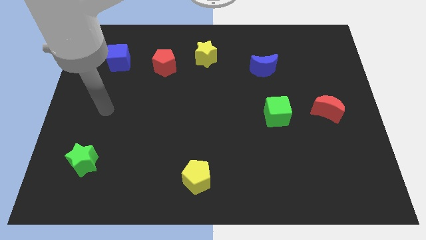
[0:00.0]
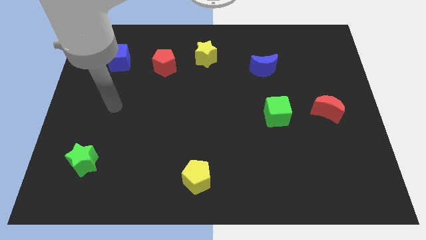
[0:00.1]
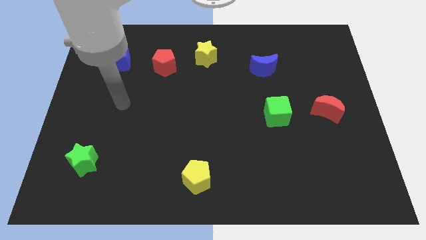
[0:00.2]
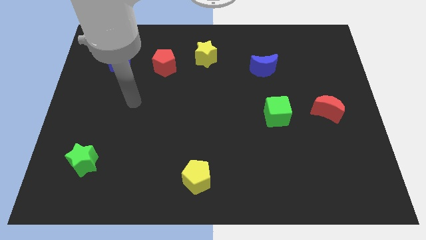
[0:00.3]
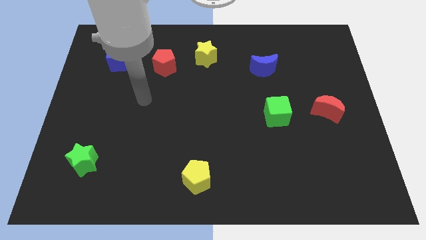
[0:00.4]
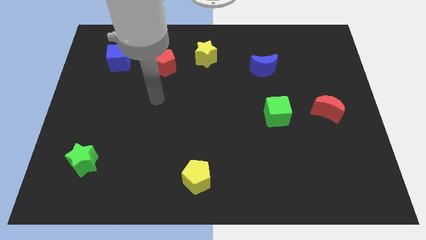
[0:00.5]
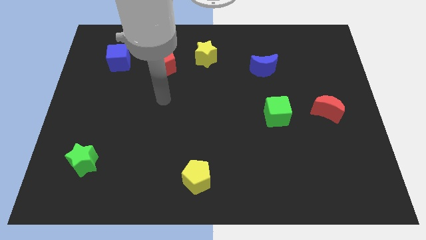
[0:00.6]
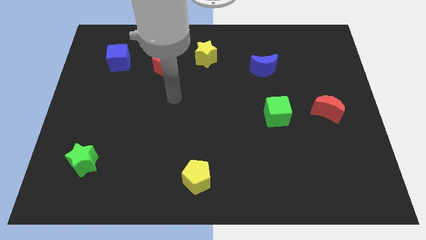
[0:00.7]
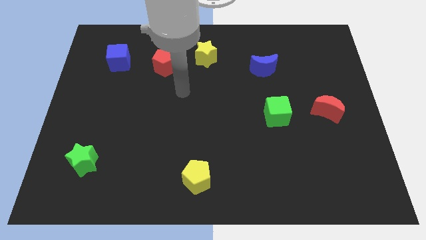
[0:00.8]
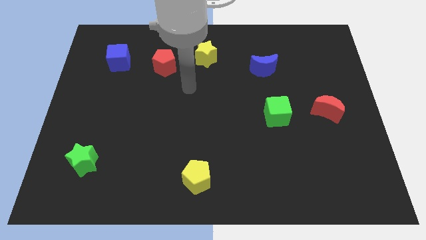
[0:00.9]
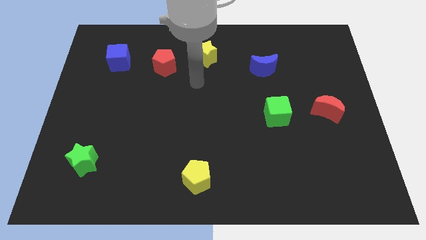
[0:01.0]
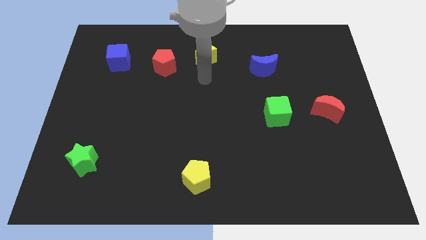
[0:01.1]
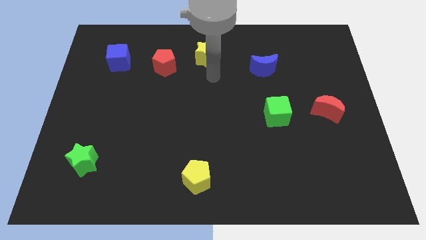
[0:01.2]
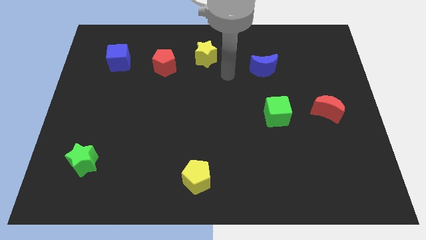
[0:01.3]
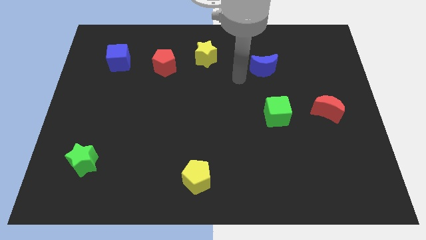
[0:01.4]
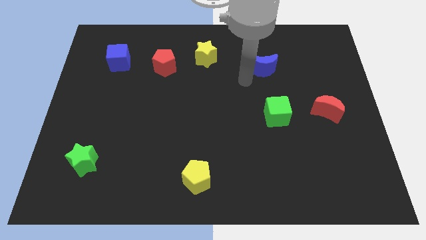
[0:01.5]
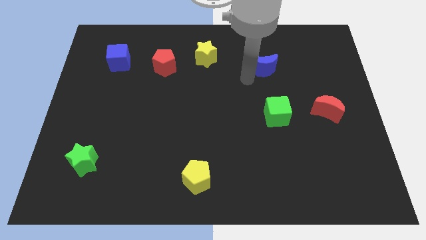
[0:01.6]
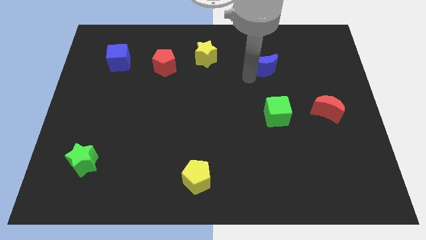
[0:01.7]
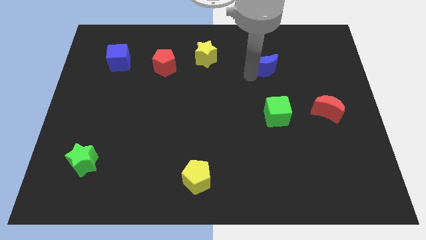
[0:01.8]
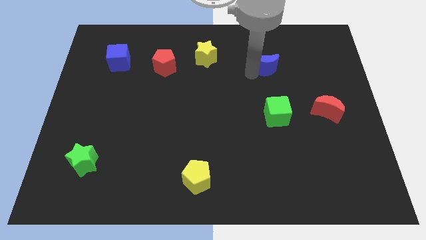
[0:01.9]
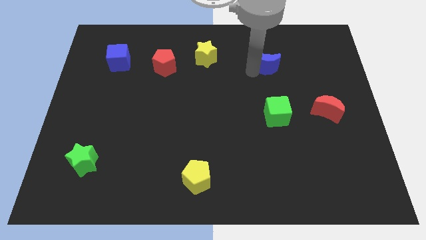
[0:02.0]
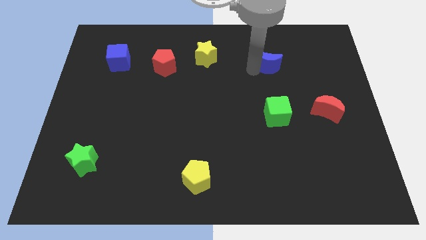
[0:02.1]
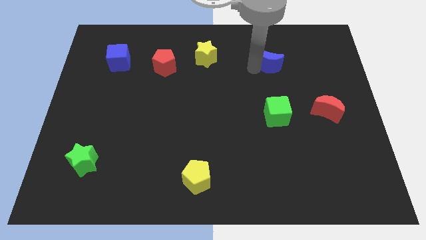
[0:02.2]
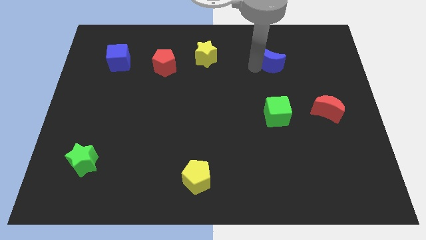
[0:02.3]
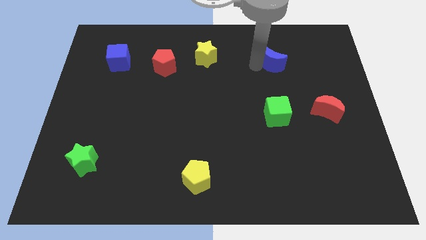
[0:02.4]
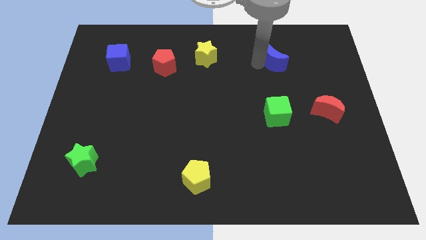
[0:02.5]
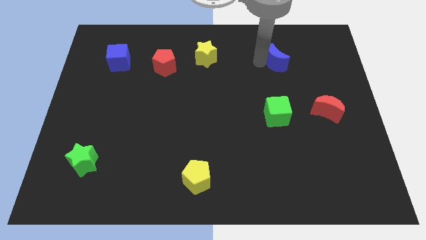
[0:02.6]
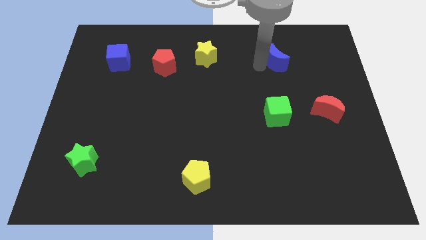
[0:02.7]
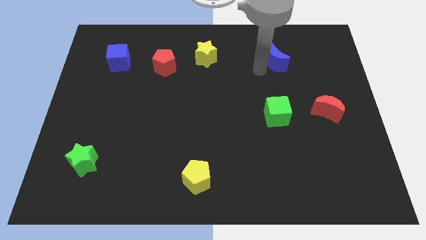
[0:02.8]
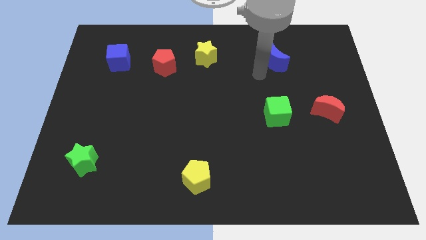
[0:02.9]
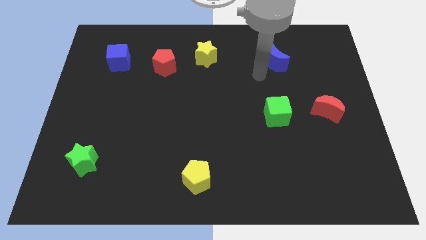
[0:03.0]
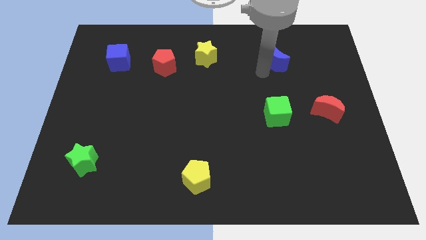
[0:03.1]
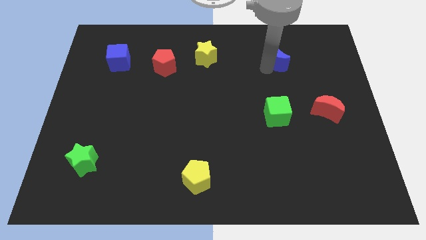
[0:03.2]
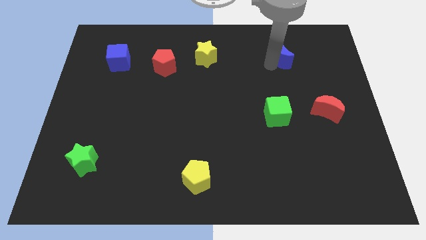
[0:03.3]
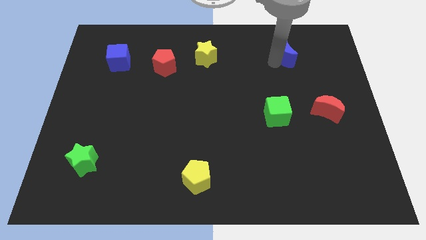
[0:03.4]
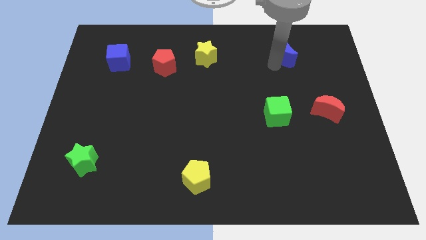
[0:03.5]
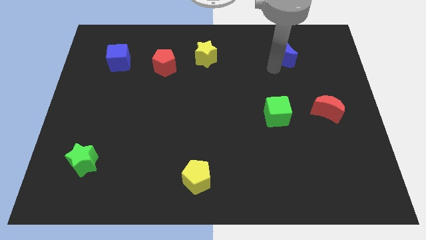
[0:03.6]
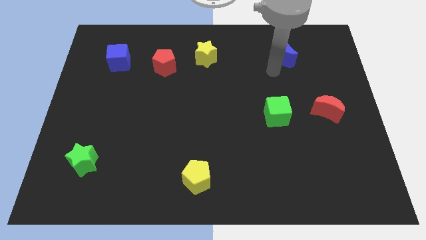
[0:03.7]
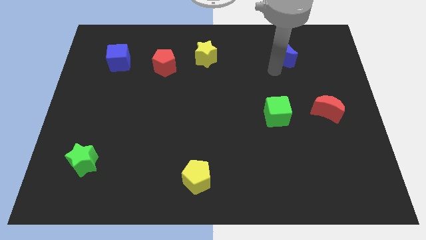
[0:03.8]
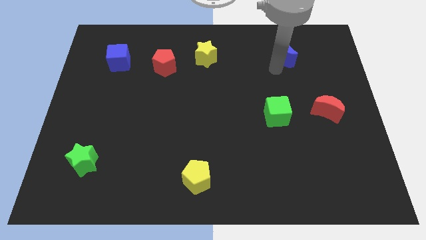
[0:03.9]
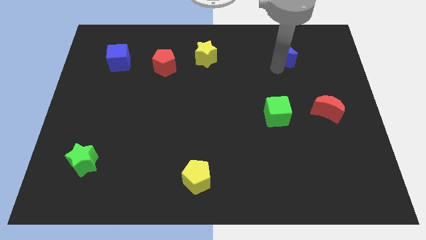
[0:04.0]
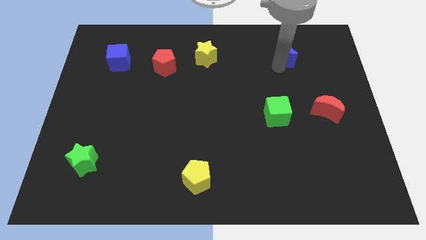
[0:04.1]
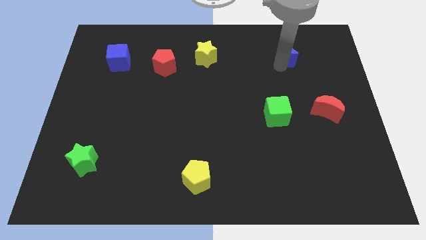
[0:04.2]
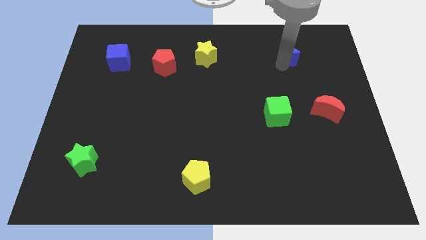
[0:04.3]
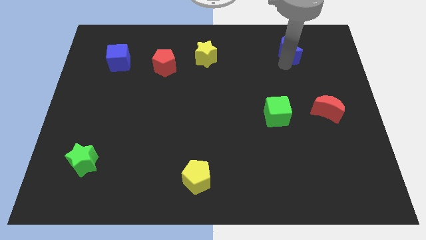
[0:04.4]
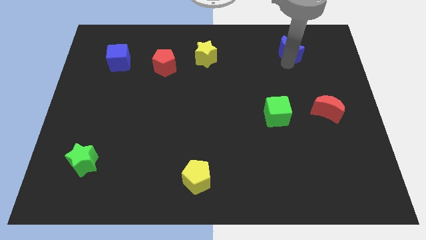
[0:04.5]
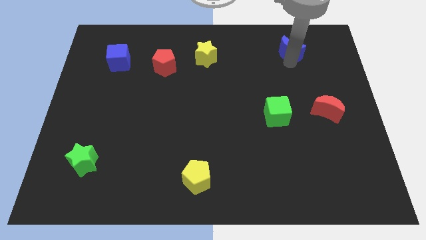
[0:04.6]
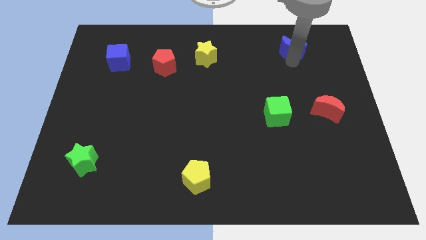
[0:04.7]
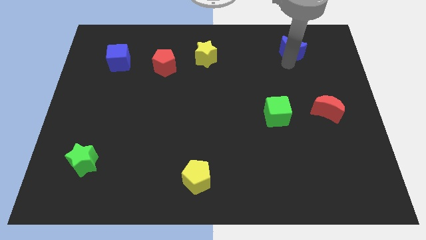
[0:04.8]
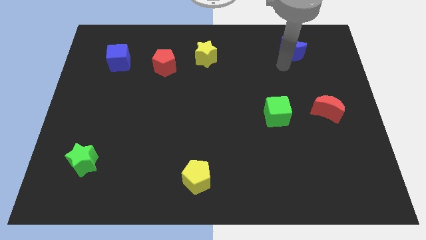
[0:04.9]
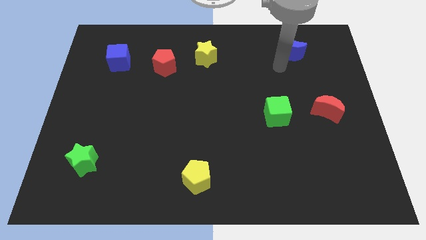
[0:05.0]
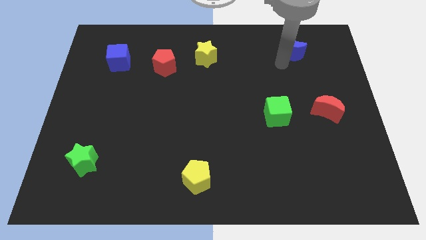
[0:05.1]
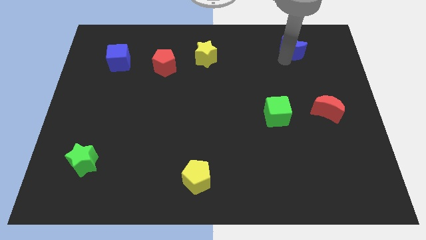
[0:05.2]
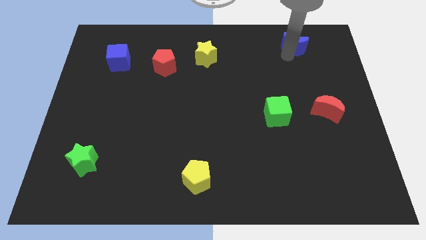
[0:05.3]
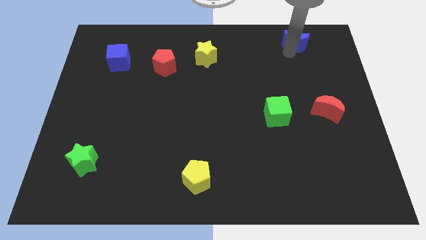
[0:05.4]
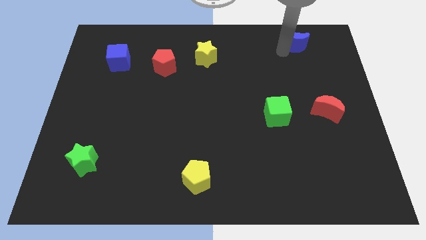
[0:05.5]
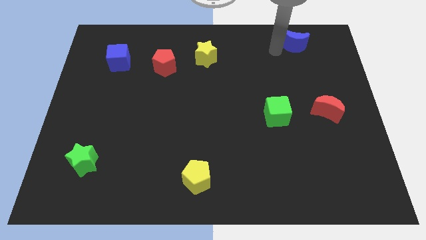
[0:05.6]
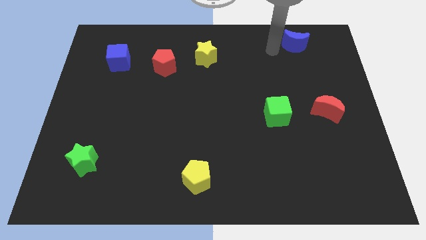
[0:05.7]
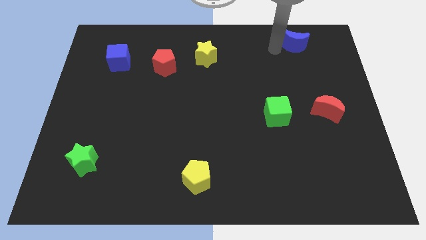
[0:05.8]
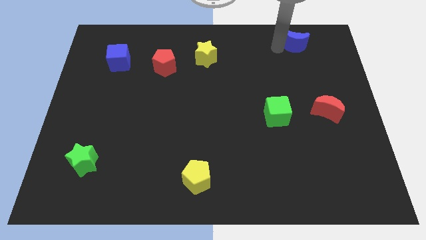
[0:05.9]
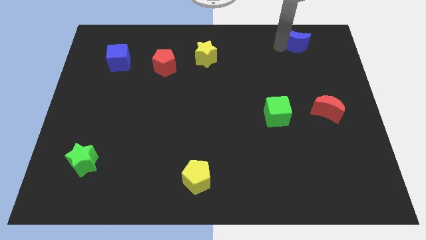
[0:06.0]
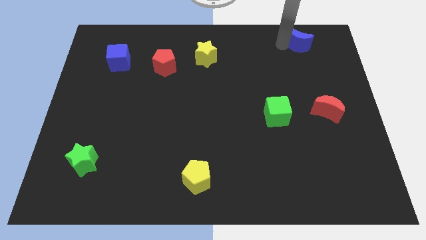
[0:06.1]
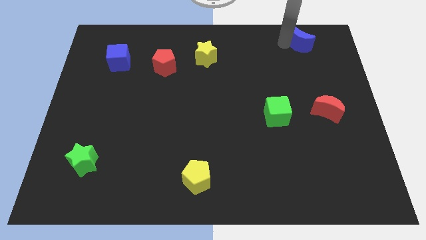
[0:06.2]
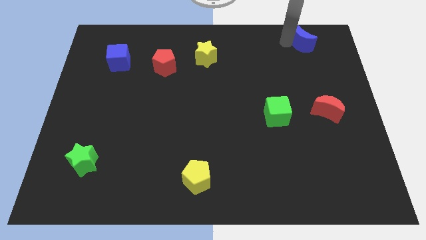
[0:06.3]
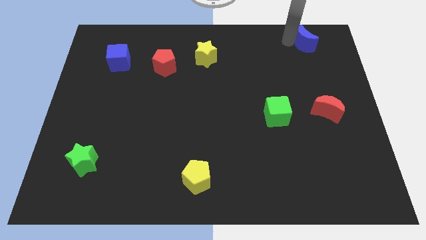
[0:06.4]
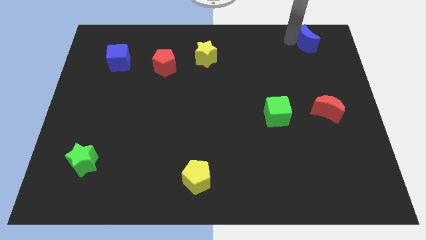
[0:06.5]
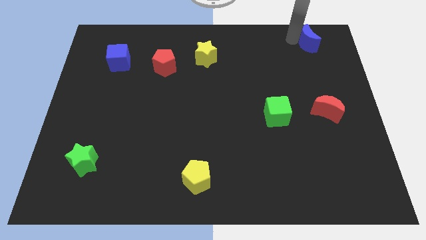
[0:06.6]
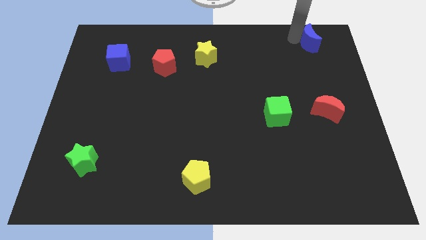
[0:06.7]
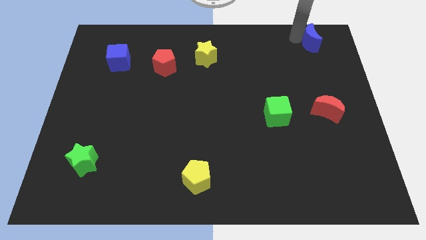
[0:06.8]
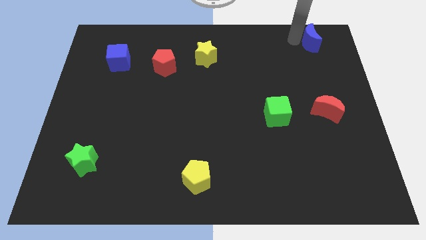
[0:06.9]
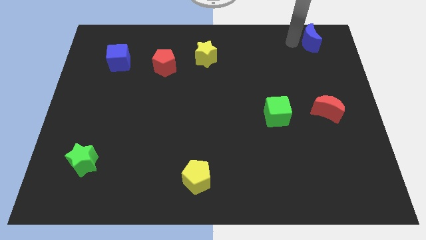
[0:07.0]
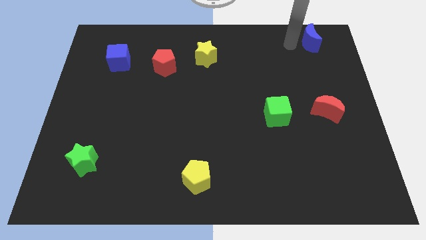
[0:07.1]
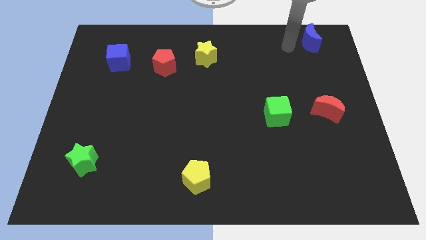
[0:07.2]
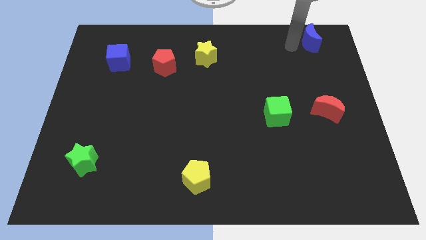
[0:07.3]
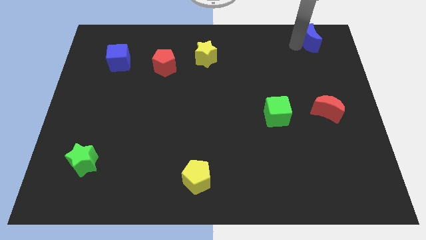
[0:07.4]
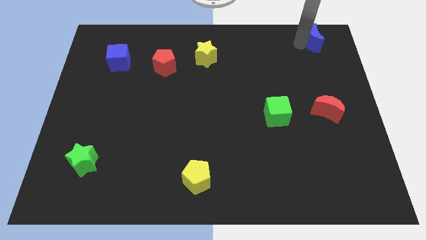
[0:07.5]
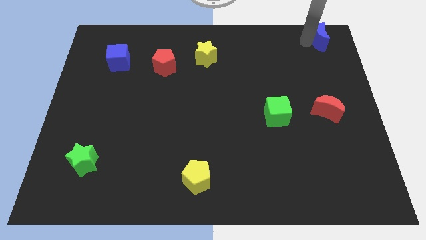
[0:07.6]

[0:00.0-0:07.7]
slide the blue moon to the top right
